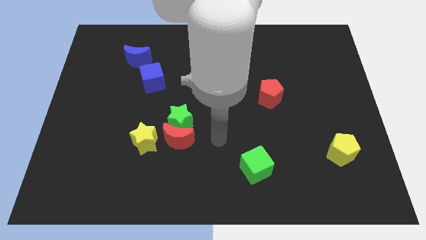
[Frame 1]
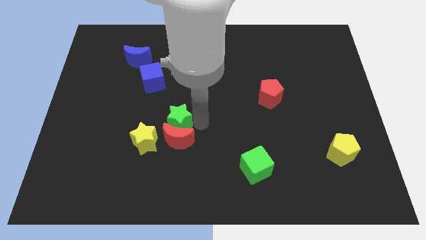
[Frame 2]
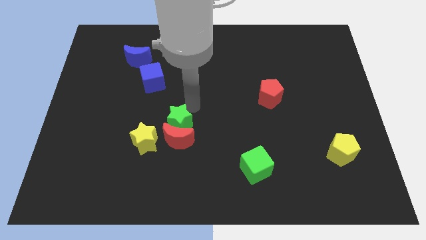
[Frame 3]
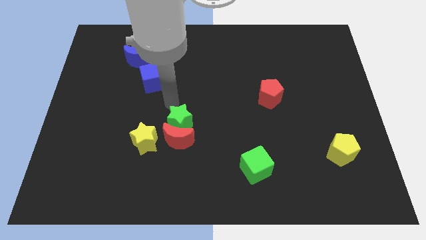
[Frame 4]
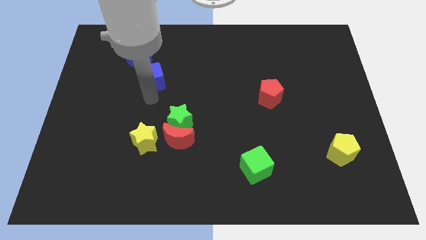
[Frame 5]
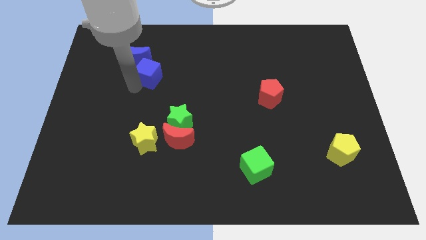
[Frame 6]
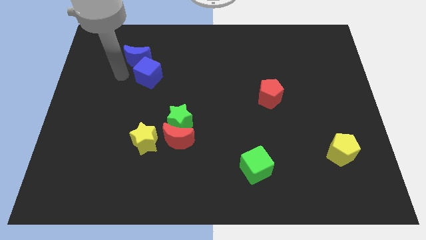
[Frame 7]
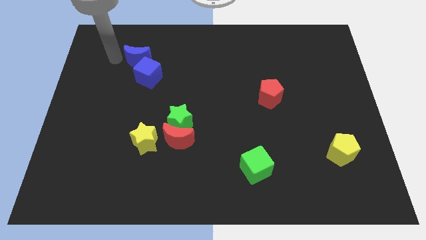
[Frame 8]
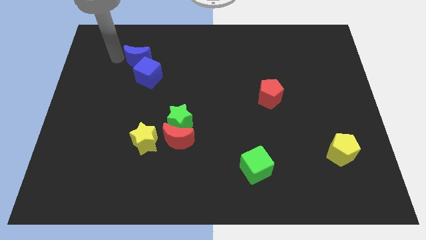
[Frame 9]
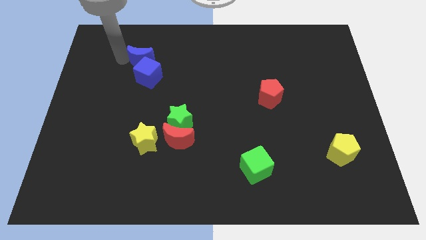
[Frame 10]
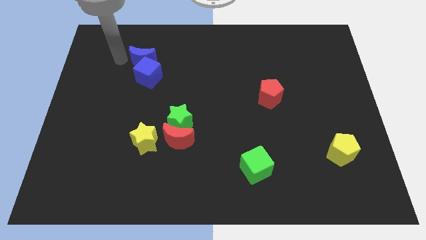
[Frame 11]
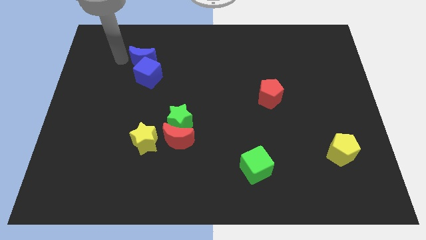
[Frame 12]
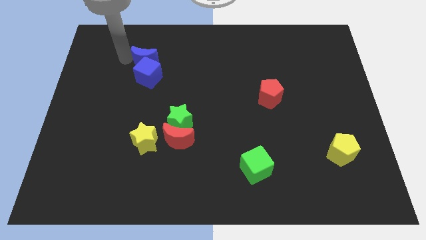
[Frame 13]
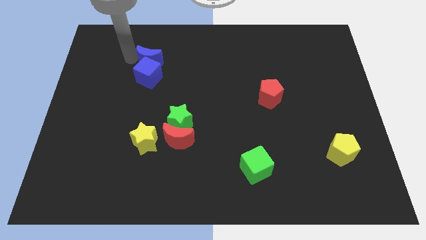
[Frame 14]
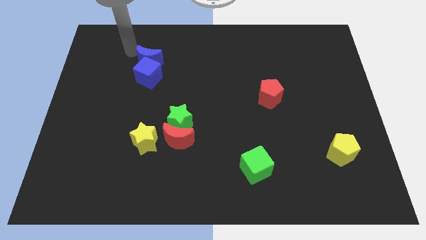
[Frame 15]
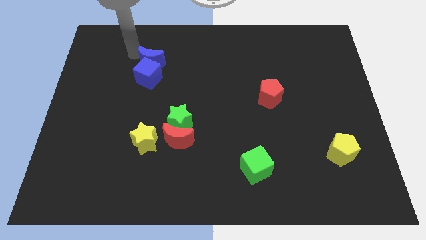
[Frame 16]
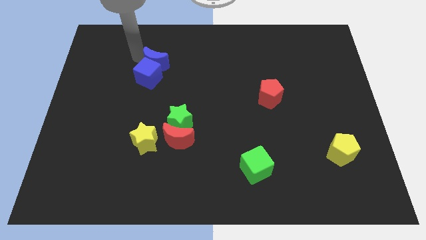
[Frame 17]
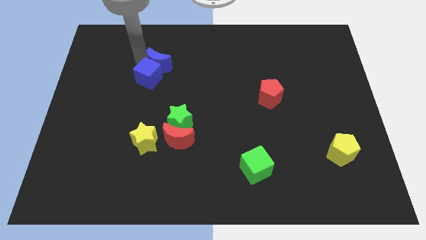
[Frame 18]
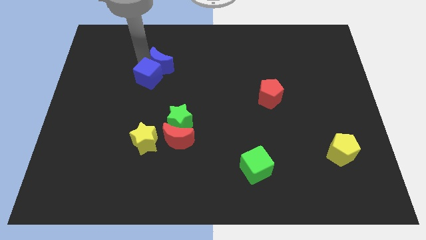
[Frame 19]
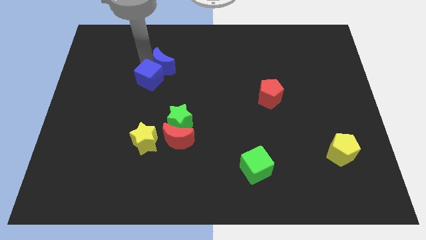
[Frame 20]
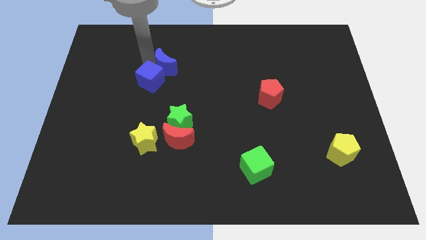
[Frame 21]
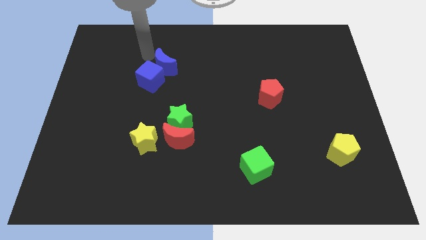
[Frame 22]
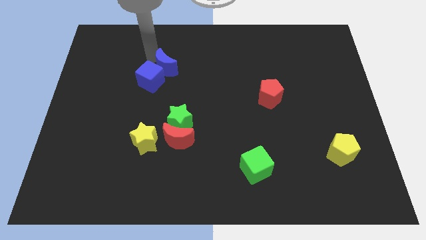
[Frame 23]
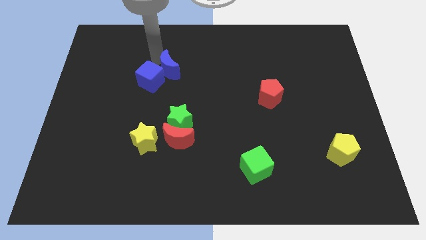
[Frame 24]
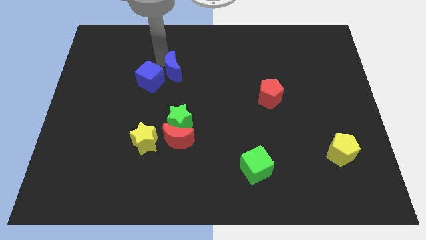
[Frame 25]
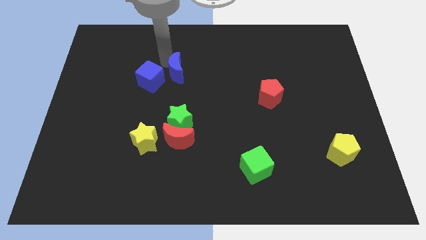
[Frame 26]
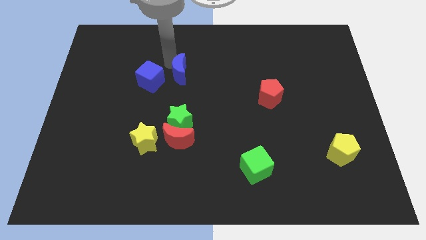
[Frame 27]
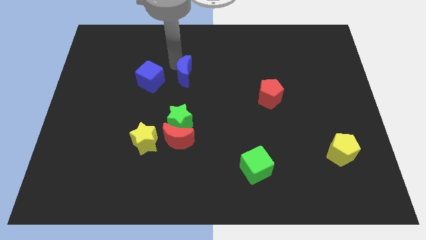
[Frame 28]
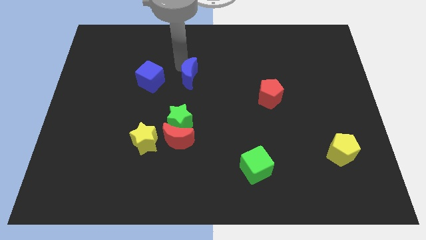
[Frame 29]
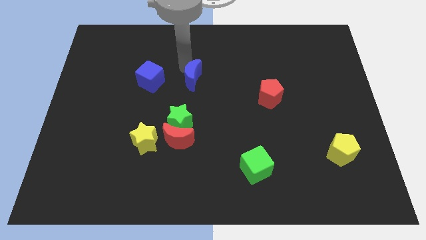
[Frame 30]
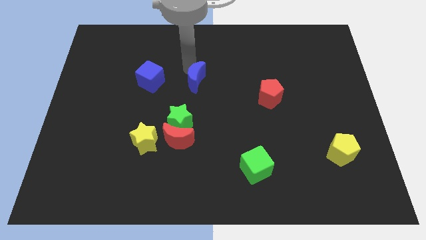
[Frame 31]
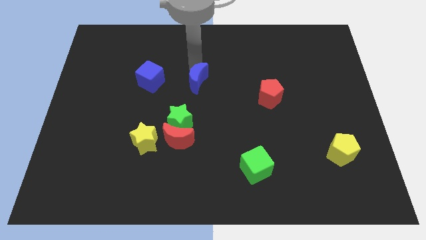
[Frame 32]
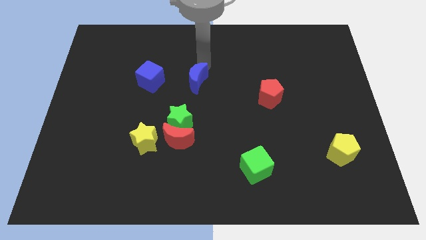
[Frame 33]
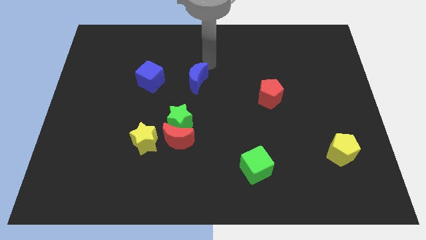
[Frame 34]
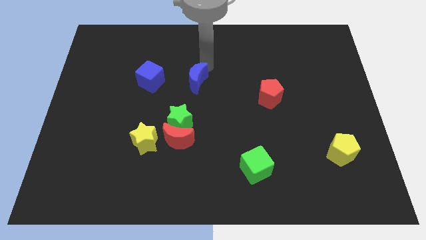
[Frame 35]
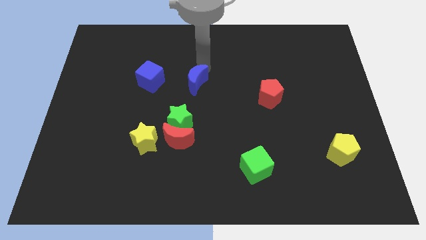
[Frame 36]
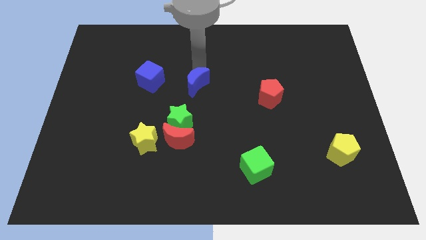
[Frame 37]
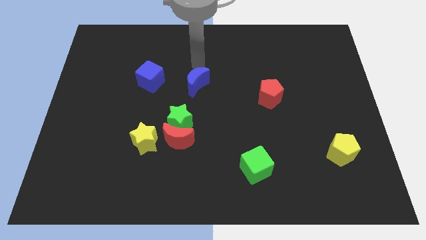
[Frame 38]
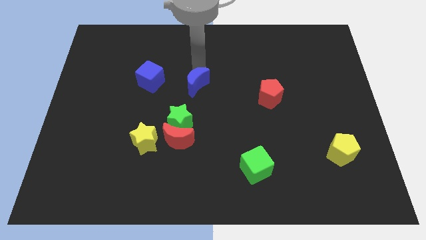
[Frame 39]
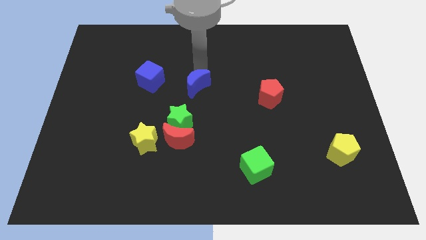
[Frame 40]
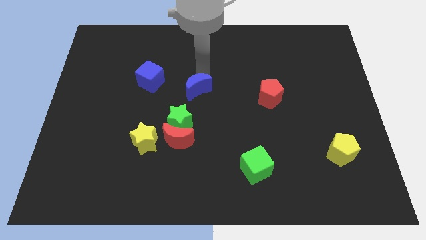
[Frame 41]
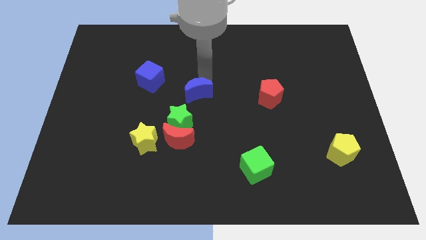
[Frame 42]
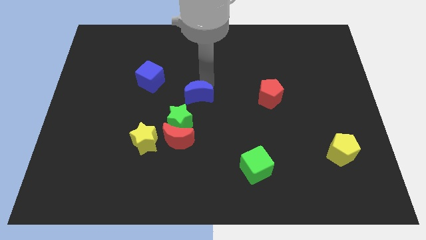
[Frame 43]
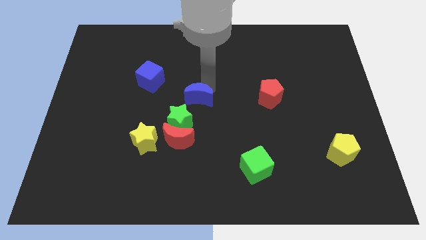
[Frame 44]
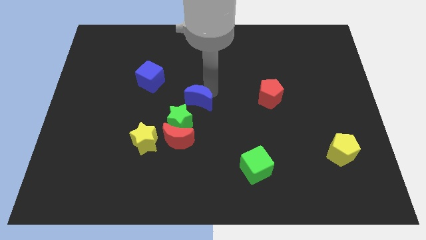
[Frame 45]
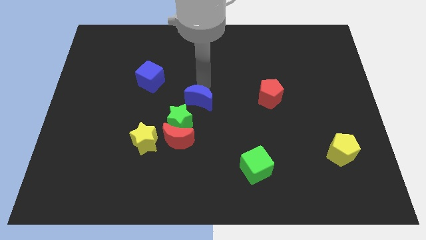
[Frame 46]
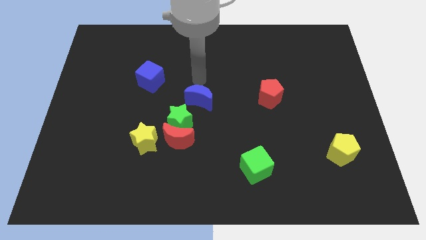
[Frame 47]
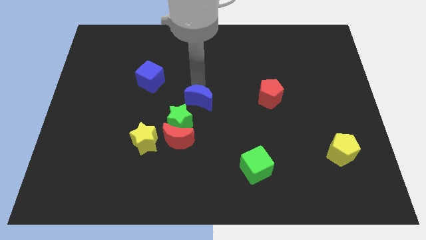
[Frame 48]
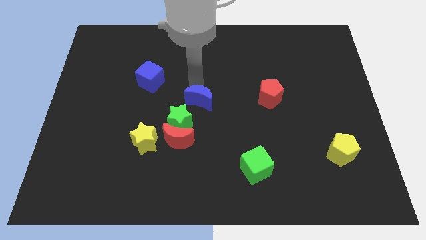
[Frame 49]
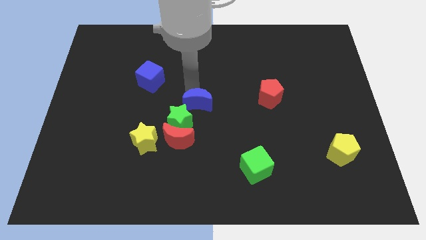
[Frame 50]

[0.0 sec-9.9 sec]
slide the blue moon diagonally up and to the right of the red moon

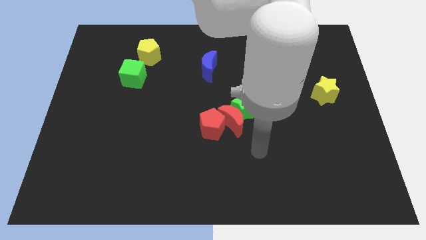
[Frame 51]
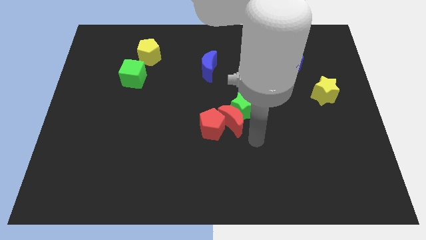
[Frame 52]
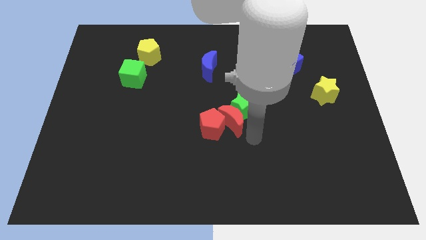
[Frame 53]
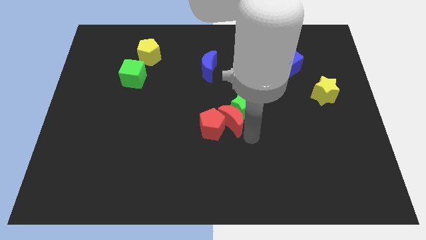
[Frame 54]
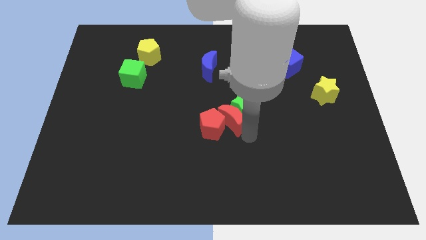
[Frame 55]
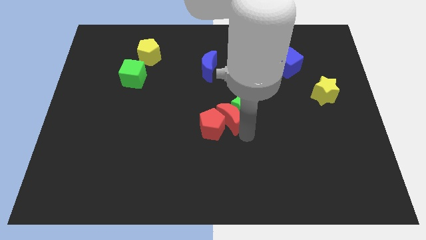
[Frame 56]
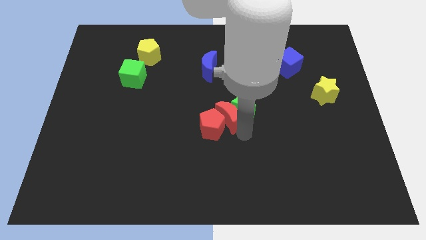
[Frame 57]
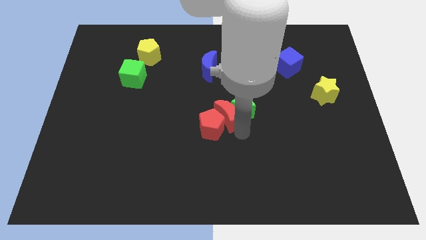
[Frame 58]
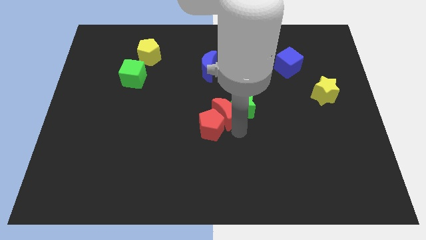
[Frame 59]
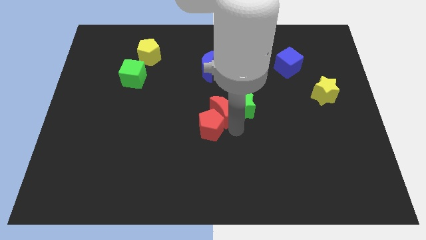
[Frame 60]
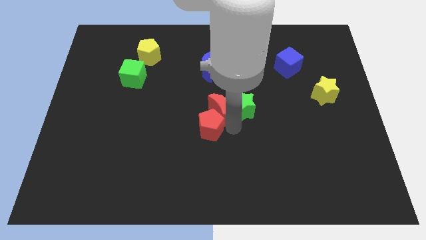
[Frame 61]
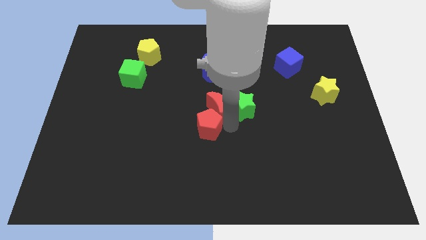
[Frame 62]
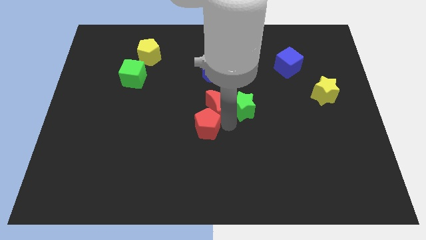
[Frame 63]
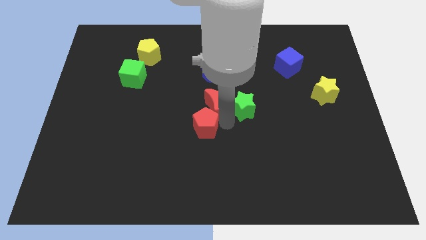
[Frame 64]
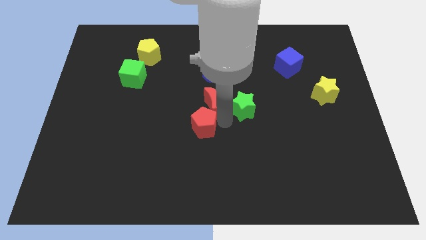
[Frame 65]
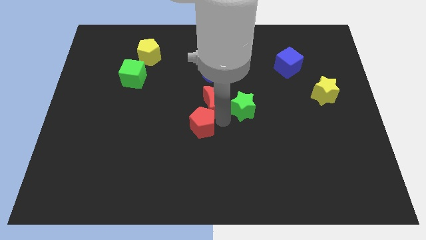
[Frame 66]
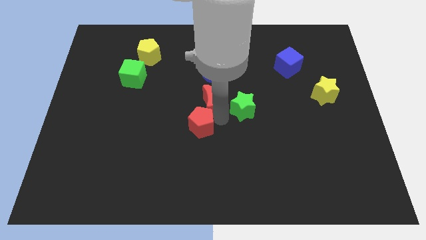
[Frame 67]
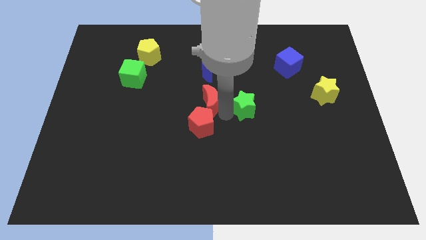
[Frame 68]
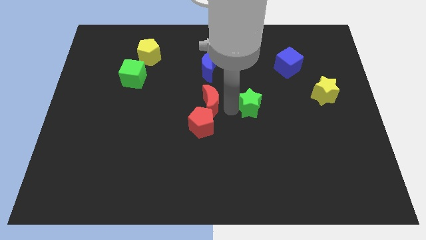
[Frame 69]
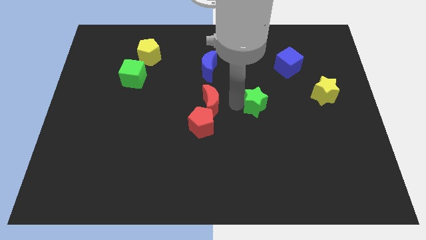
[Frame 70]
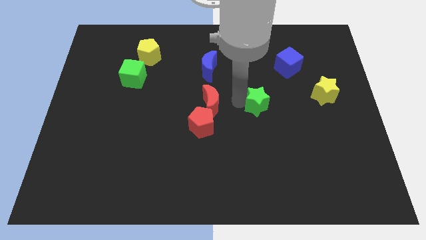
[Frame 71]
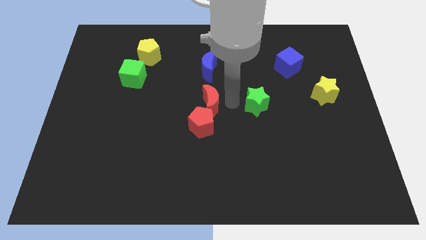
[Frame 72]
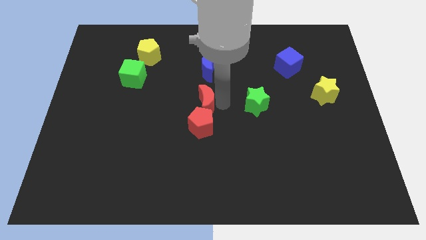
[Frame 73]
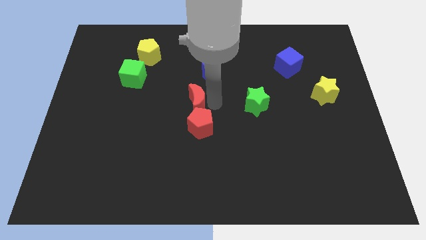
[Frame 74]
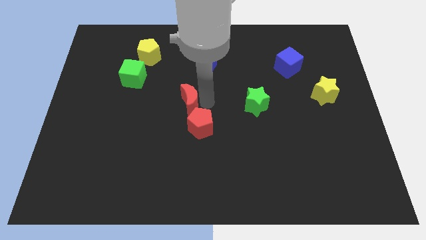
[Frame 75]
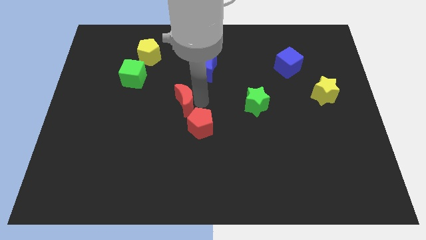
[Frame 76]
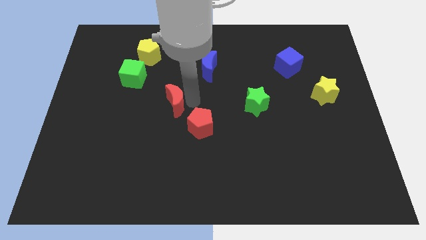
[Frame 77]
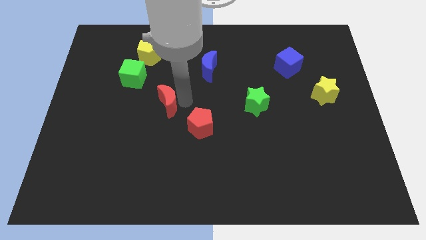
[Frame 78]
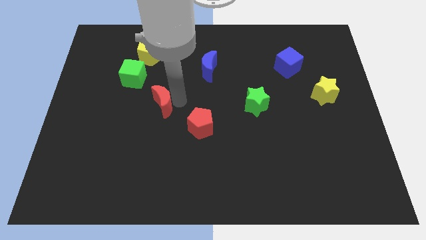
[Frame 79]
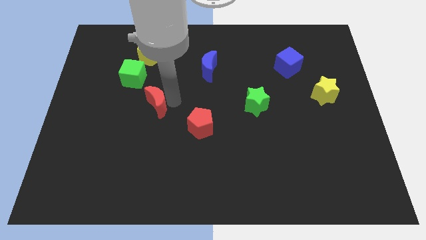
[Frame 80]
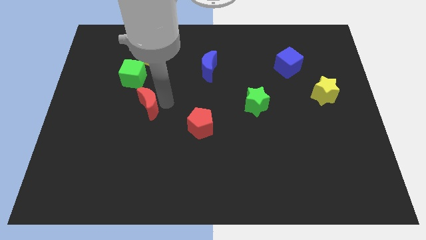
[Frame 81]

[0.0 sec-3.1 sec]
slide the red moon below the green cube
